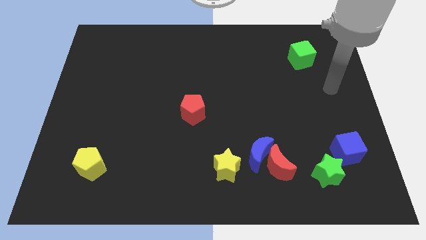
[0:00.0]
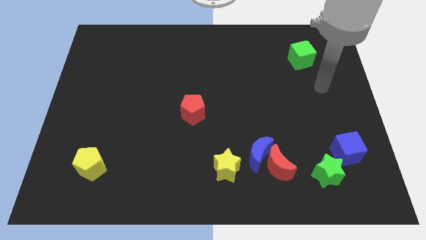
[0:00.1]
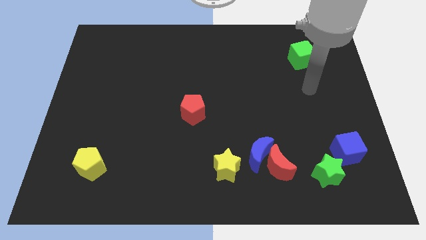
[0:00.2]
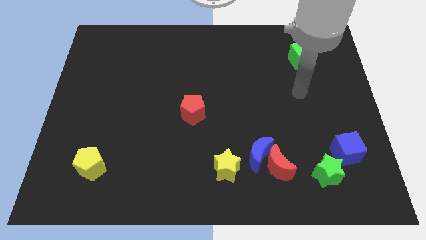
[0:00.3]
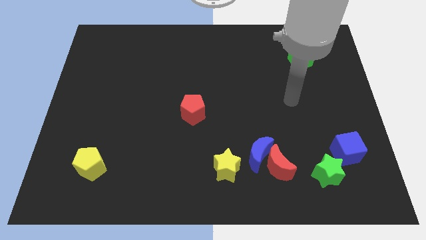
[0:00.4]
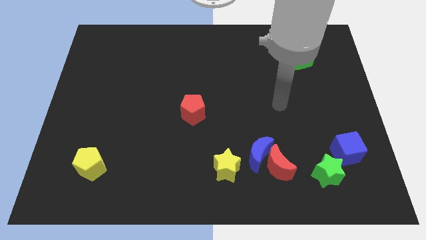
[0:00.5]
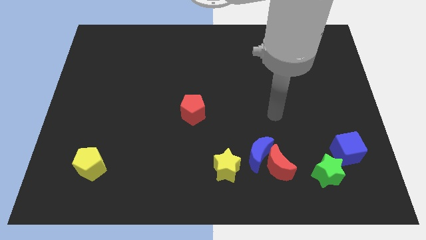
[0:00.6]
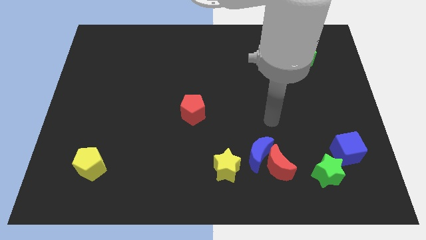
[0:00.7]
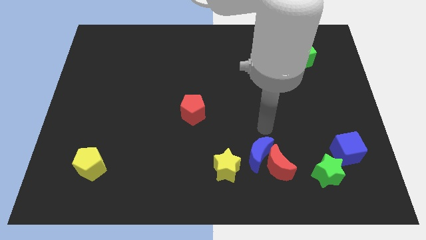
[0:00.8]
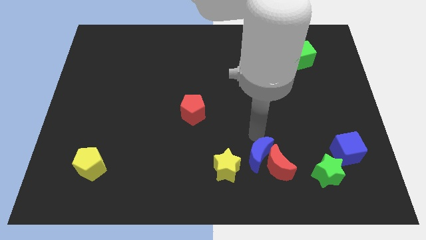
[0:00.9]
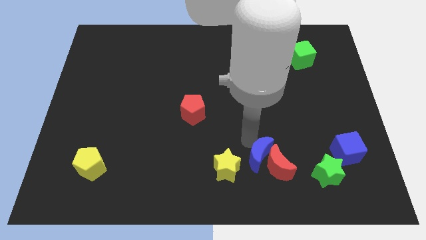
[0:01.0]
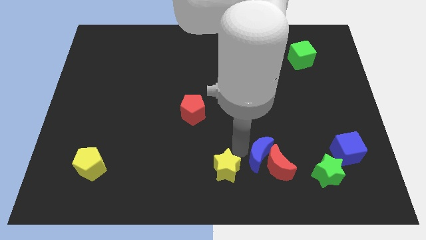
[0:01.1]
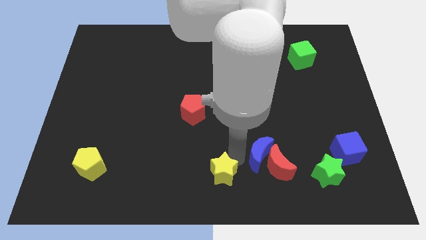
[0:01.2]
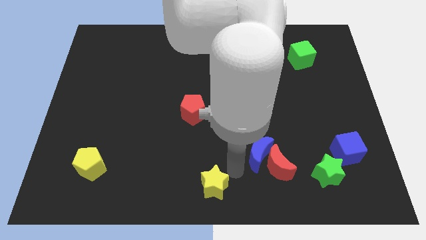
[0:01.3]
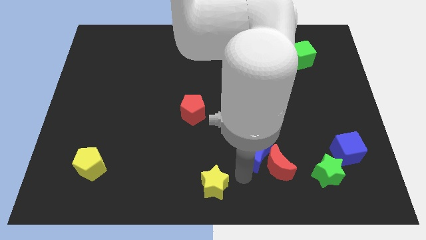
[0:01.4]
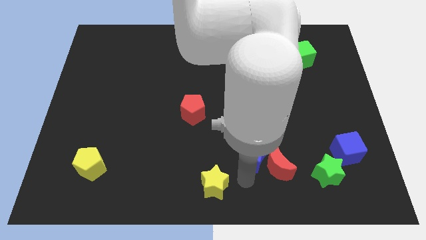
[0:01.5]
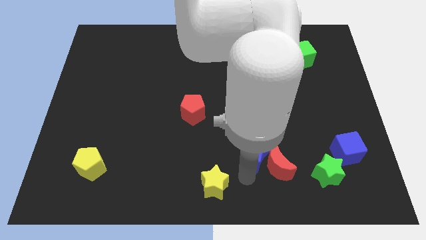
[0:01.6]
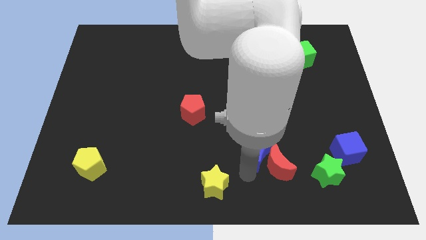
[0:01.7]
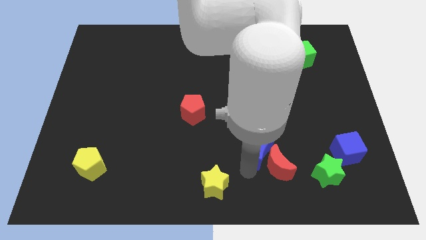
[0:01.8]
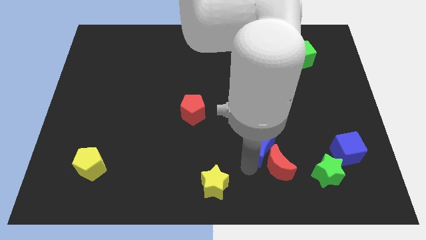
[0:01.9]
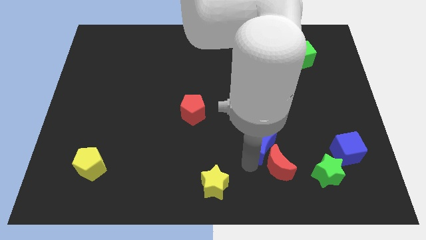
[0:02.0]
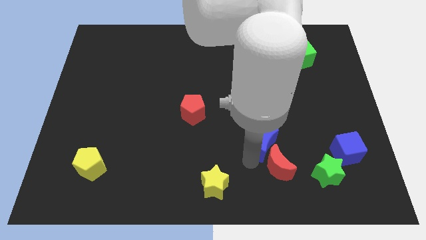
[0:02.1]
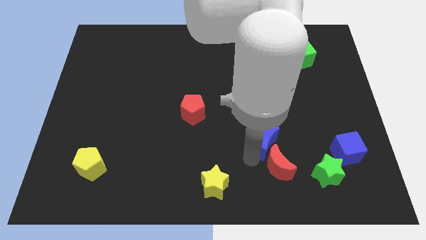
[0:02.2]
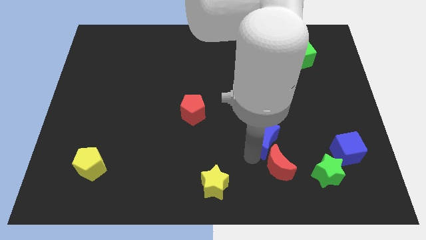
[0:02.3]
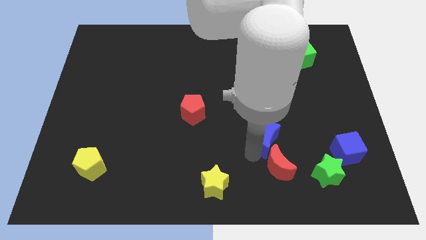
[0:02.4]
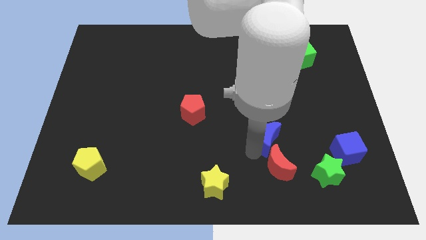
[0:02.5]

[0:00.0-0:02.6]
separate the blue moon from the red moon and yellow star

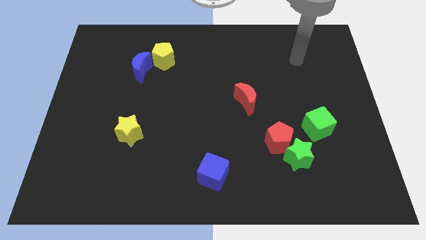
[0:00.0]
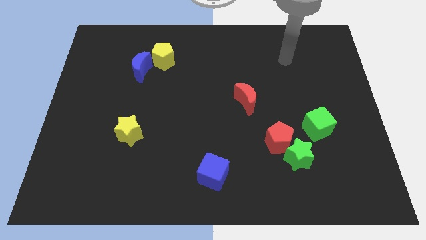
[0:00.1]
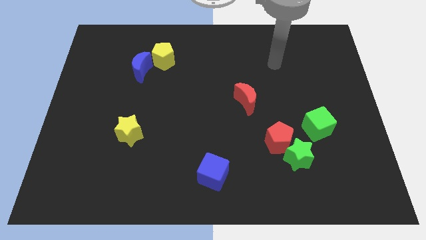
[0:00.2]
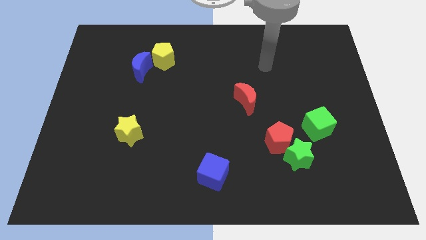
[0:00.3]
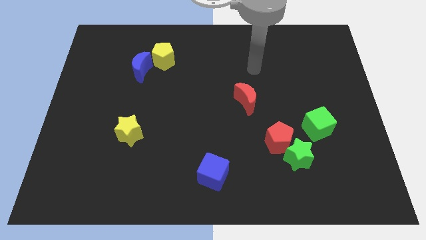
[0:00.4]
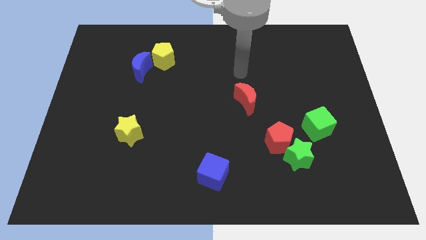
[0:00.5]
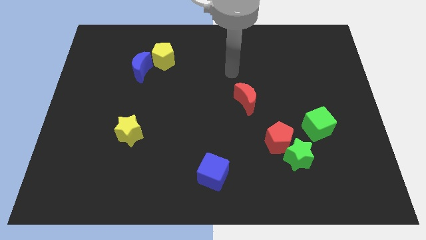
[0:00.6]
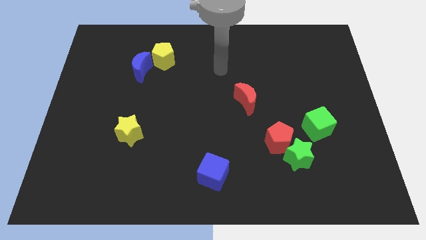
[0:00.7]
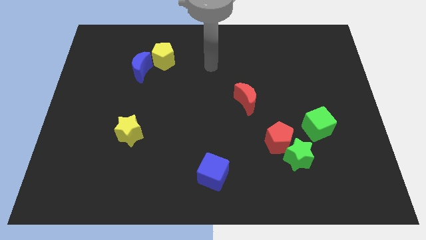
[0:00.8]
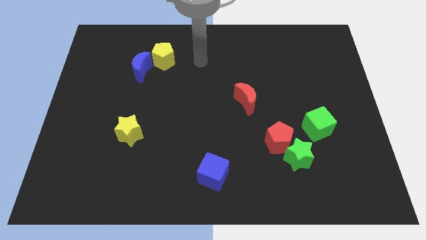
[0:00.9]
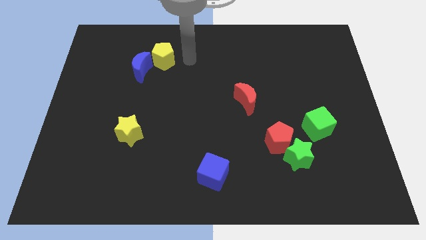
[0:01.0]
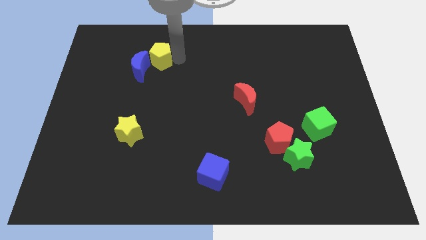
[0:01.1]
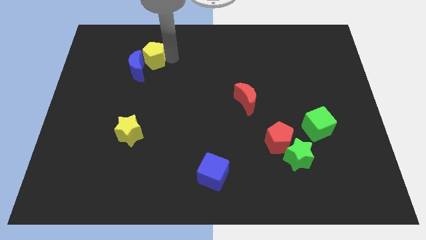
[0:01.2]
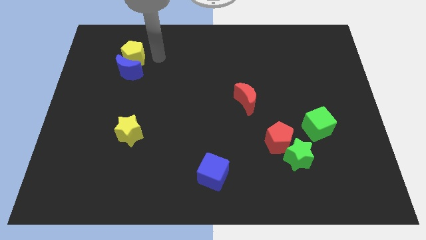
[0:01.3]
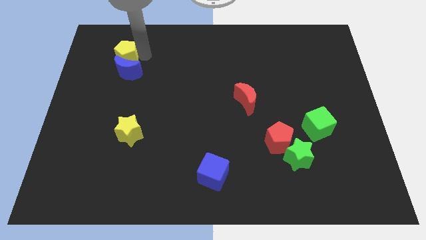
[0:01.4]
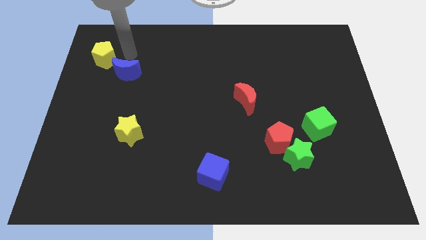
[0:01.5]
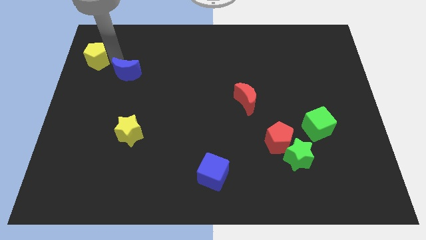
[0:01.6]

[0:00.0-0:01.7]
separate the blue moon from the yellow pentagon

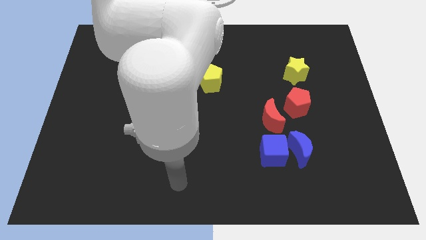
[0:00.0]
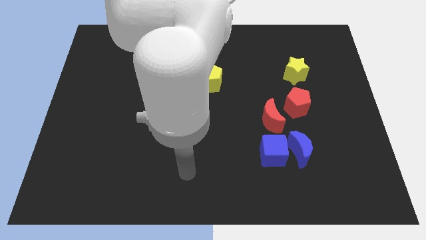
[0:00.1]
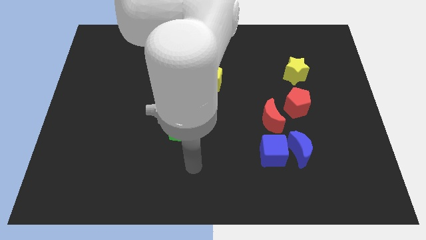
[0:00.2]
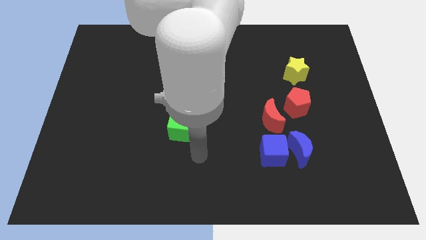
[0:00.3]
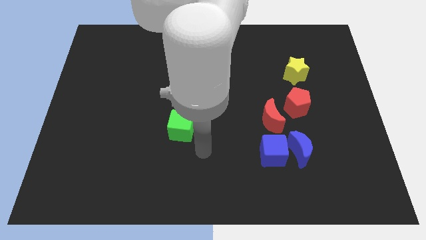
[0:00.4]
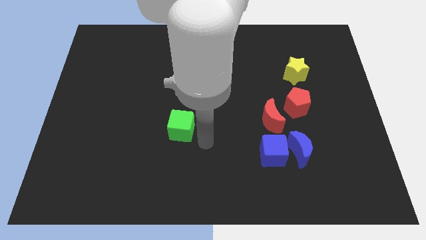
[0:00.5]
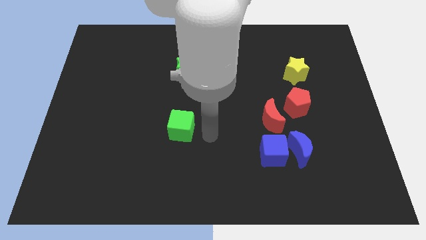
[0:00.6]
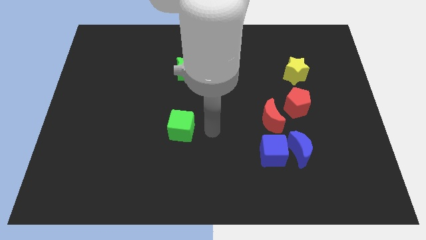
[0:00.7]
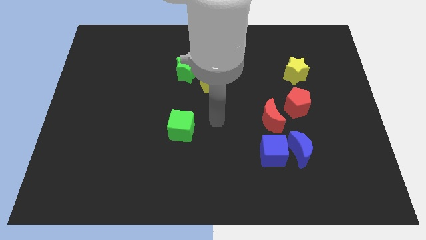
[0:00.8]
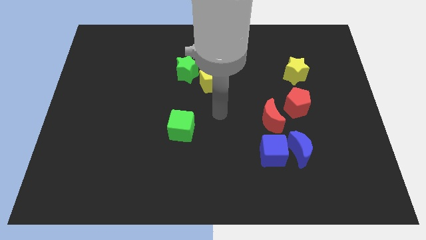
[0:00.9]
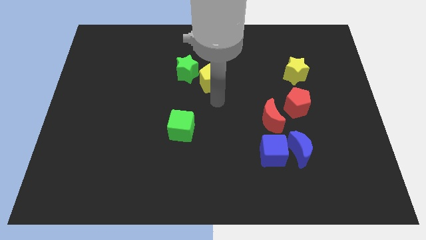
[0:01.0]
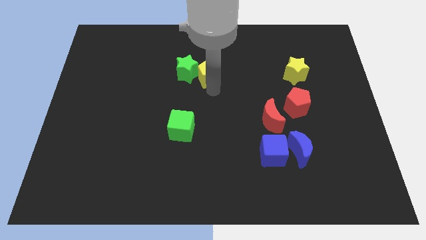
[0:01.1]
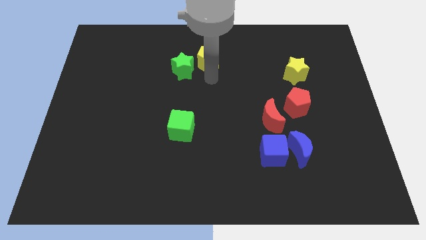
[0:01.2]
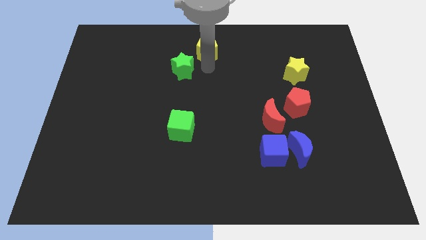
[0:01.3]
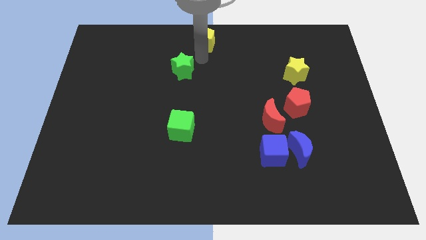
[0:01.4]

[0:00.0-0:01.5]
move the green star away from the yellow pentagon

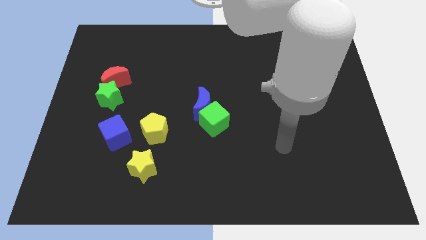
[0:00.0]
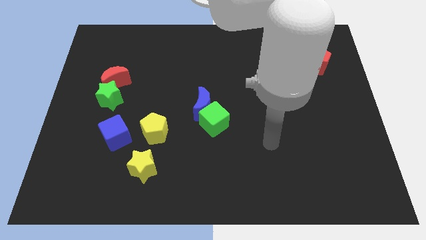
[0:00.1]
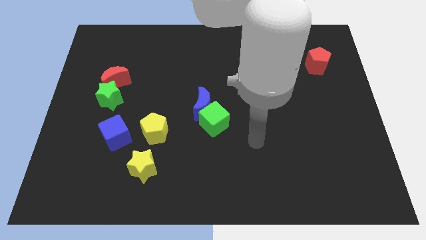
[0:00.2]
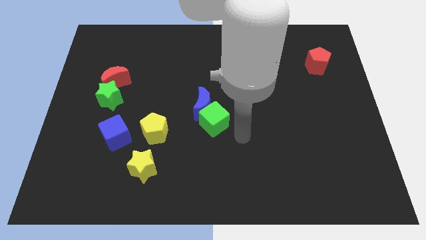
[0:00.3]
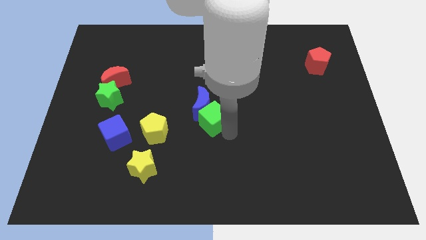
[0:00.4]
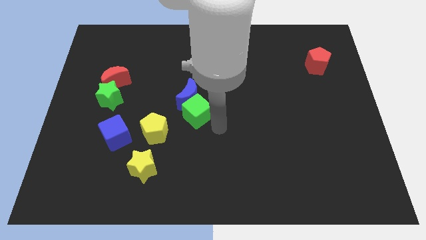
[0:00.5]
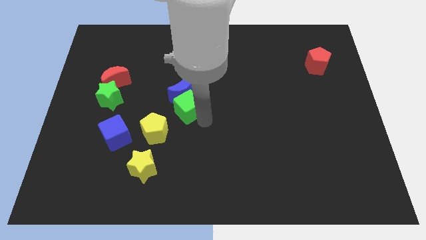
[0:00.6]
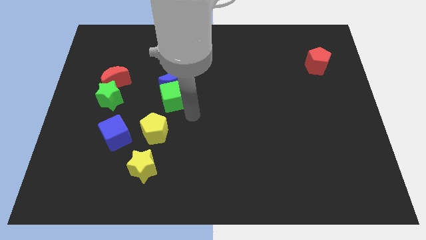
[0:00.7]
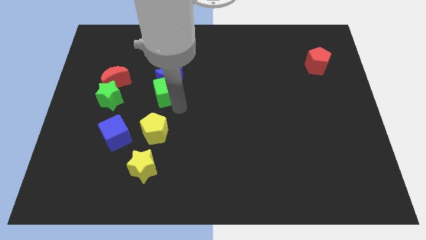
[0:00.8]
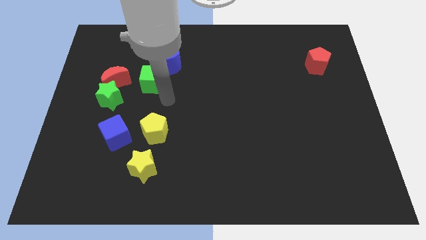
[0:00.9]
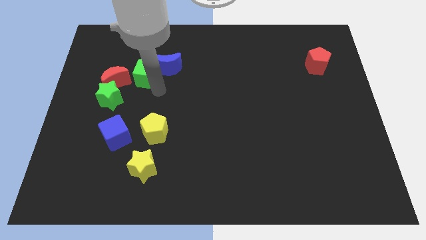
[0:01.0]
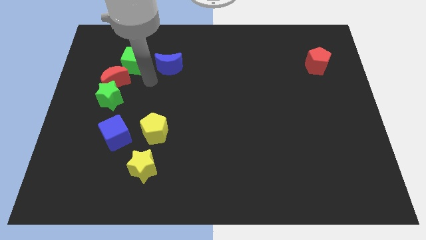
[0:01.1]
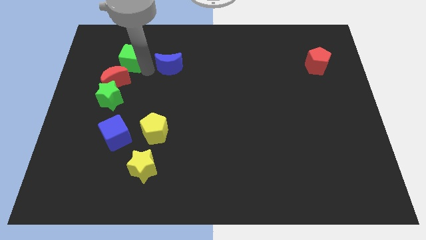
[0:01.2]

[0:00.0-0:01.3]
move the blue moon away from the green cube

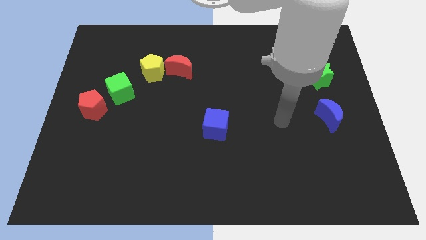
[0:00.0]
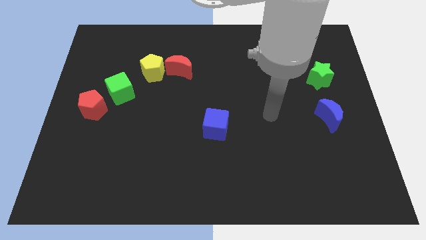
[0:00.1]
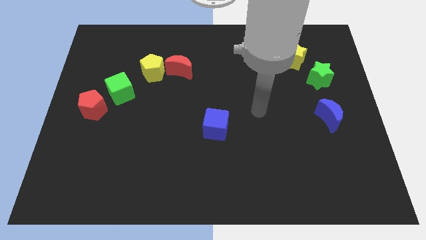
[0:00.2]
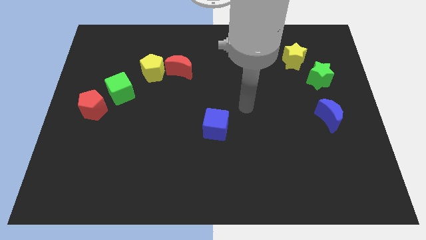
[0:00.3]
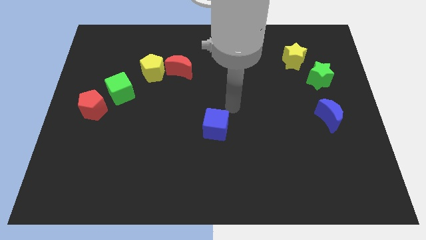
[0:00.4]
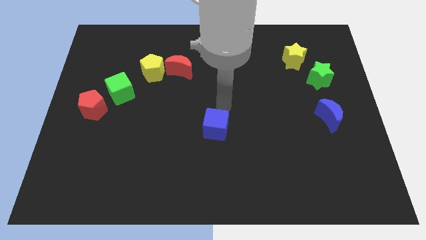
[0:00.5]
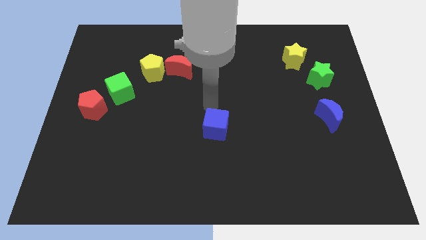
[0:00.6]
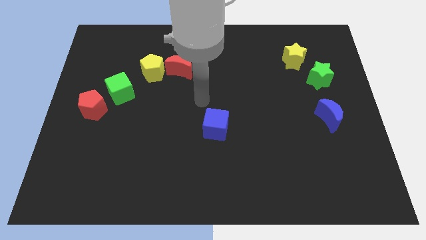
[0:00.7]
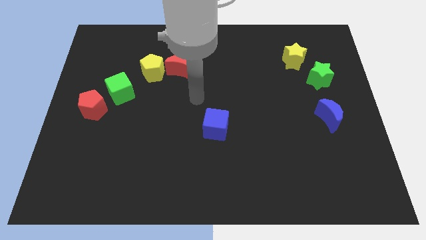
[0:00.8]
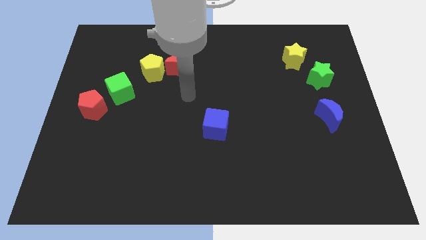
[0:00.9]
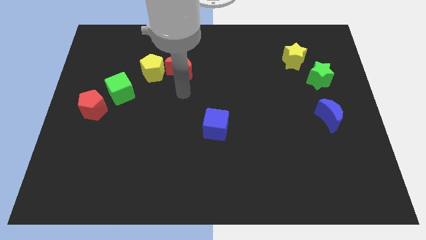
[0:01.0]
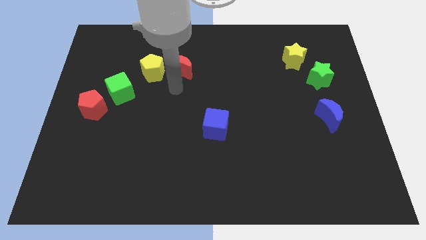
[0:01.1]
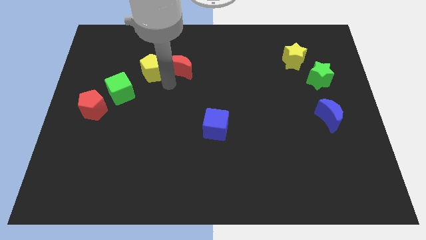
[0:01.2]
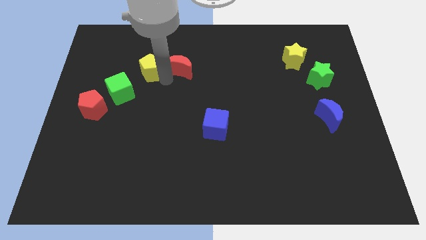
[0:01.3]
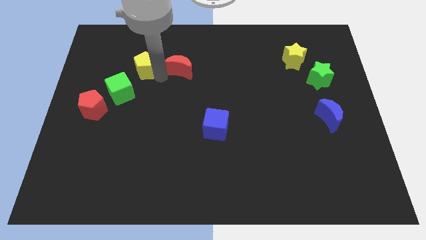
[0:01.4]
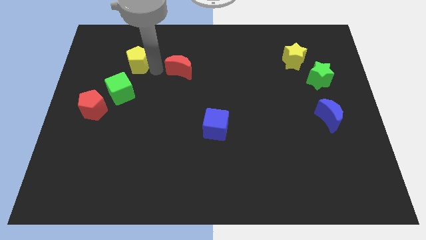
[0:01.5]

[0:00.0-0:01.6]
separate the red moon from the yellow pentagon

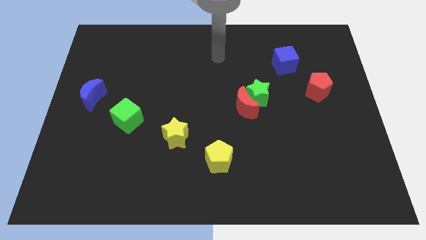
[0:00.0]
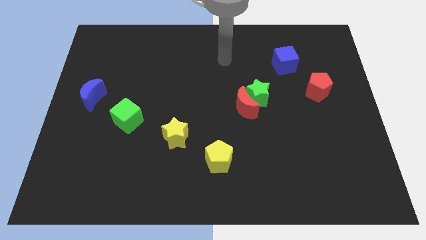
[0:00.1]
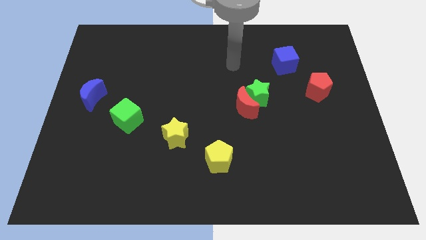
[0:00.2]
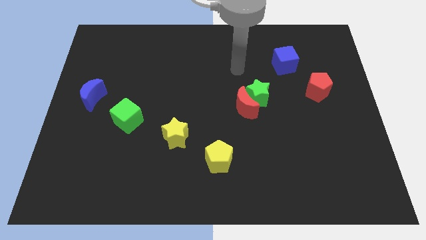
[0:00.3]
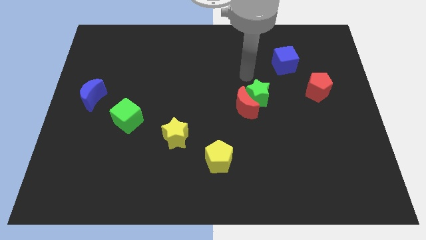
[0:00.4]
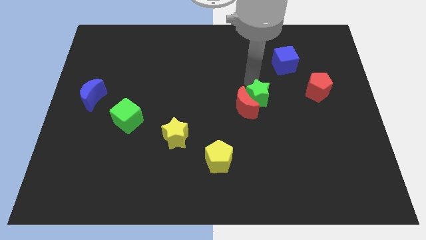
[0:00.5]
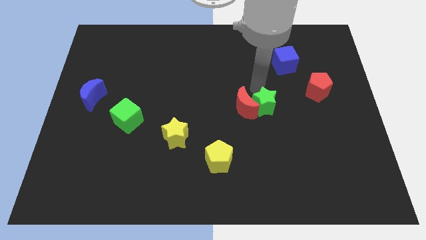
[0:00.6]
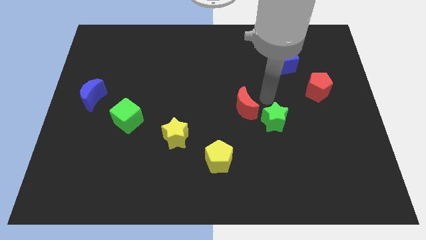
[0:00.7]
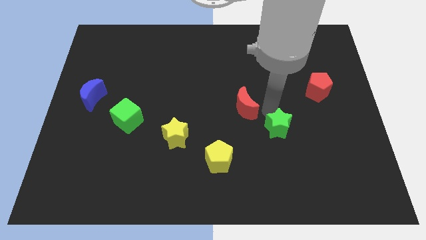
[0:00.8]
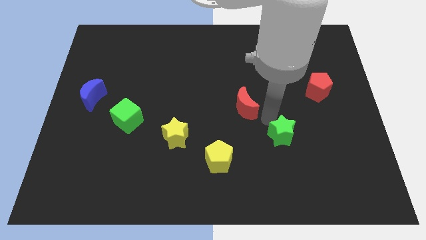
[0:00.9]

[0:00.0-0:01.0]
separate the red moon from the green star
